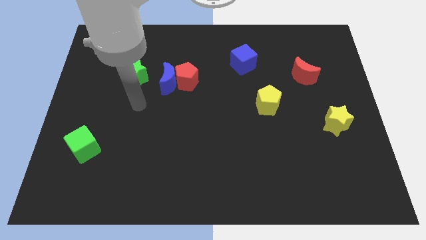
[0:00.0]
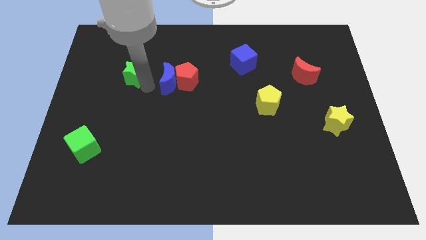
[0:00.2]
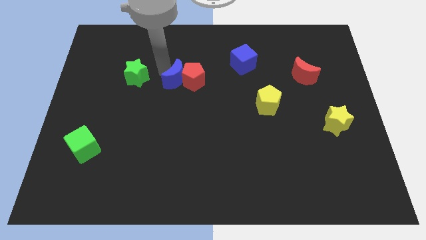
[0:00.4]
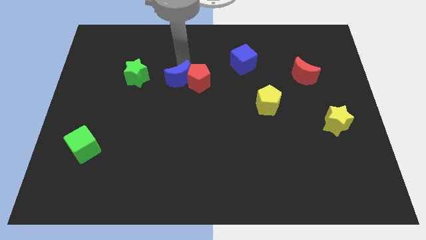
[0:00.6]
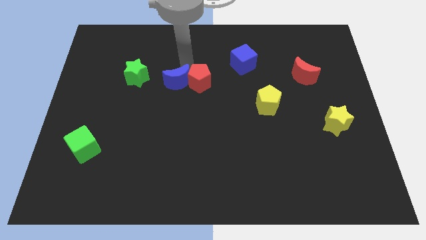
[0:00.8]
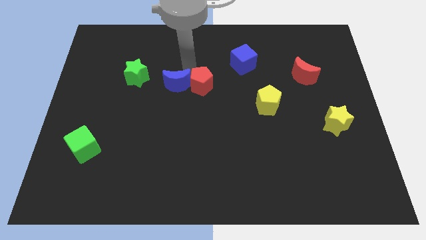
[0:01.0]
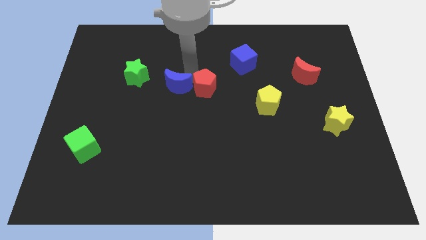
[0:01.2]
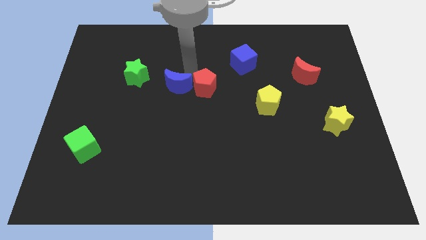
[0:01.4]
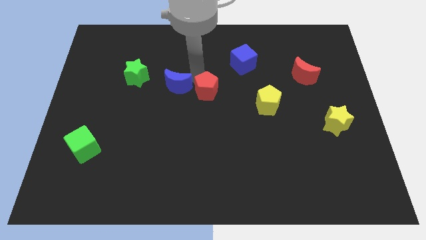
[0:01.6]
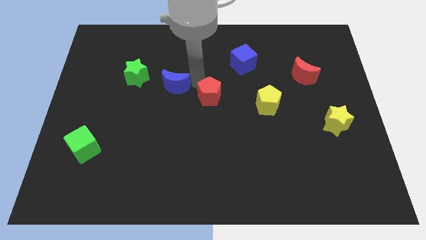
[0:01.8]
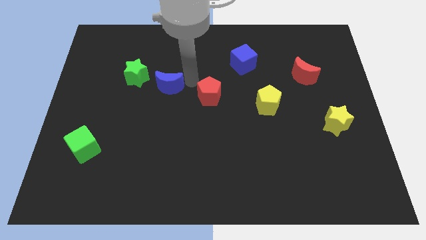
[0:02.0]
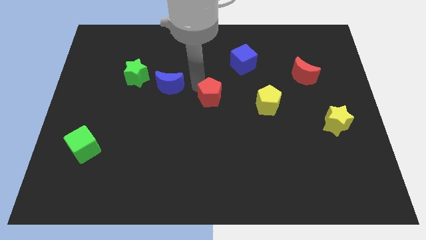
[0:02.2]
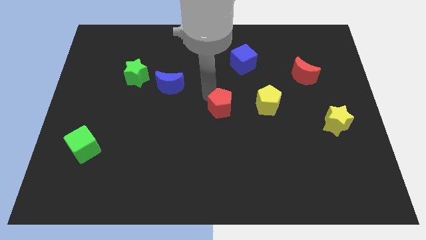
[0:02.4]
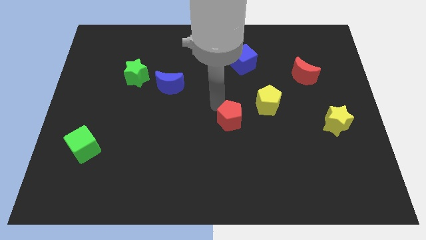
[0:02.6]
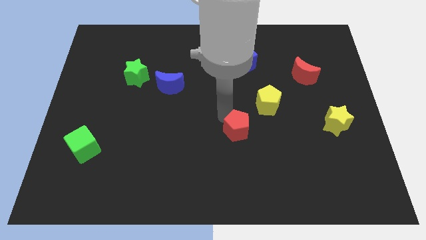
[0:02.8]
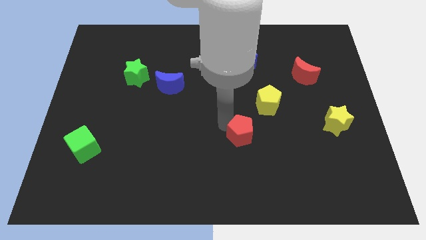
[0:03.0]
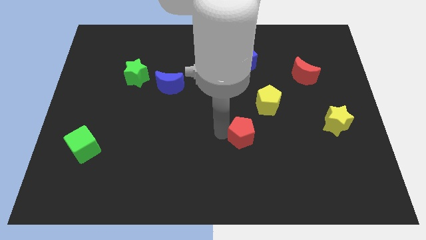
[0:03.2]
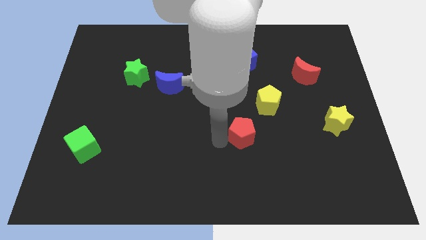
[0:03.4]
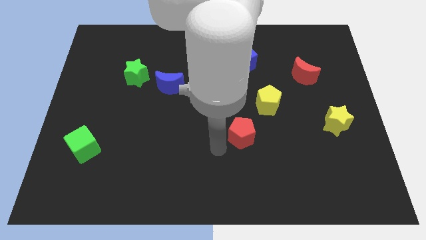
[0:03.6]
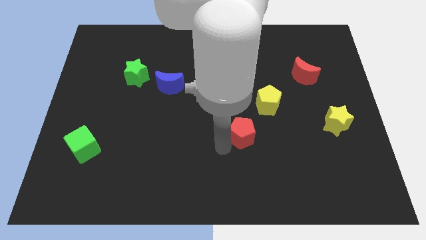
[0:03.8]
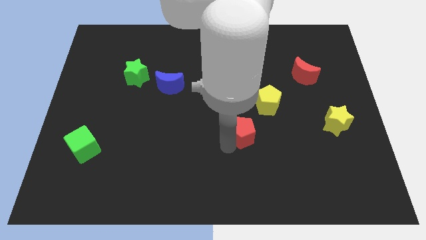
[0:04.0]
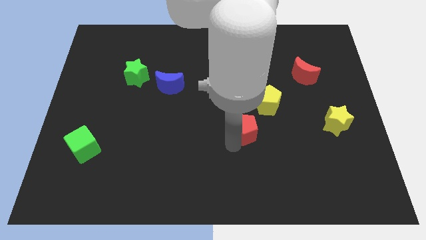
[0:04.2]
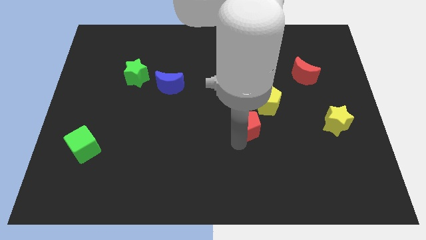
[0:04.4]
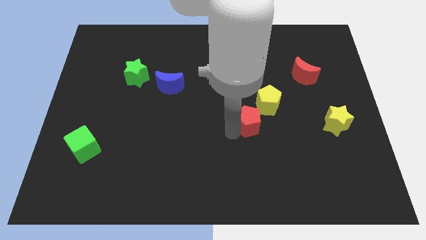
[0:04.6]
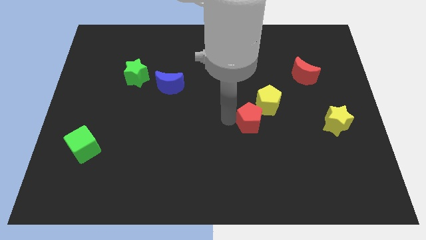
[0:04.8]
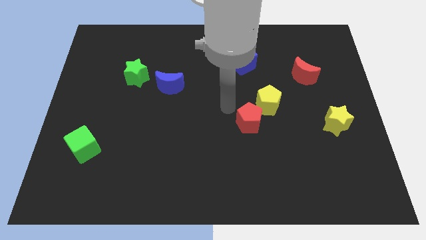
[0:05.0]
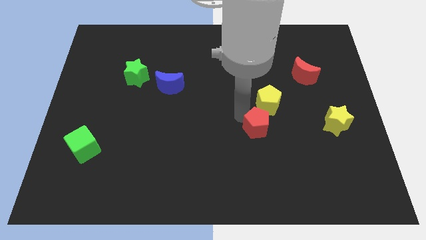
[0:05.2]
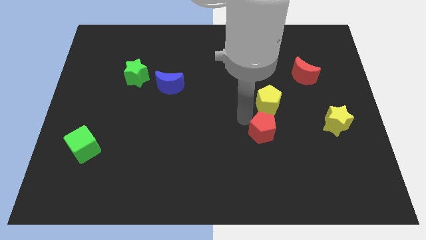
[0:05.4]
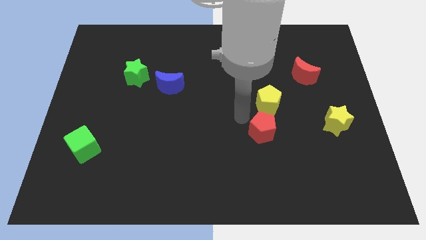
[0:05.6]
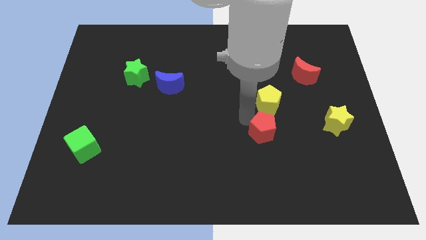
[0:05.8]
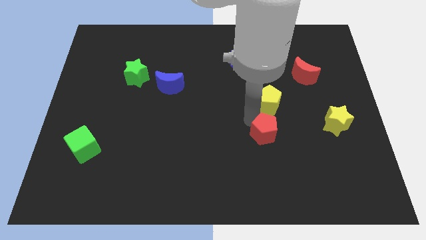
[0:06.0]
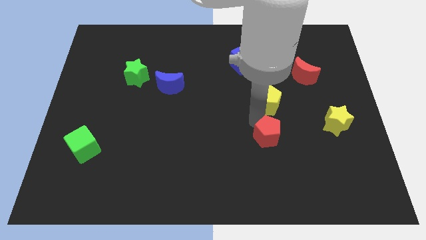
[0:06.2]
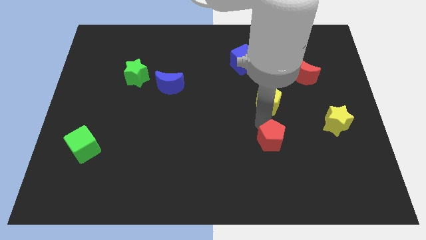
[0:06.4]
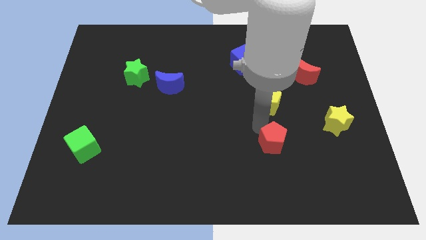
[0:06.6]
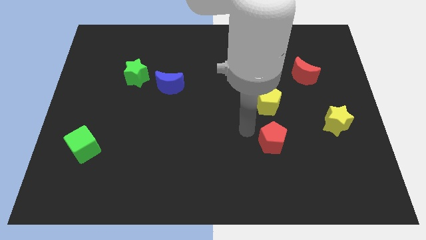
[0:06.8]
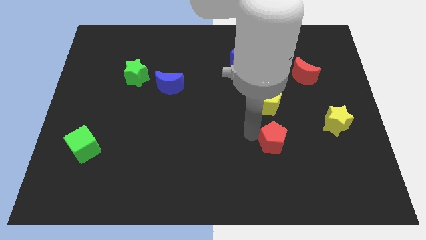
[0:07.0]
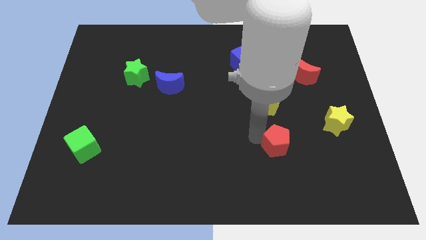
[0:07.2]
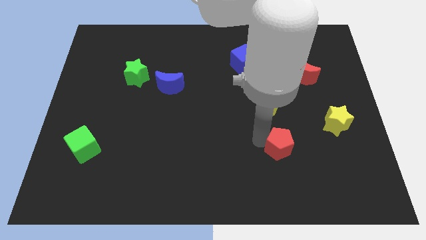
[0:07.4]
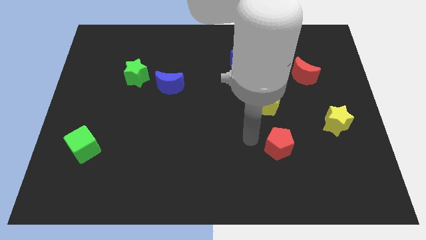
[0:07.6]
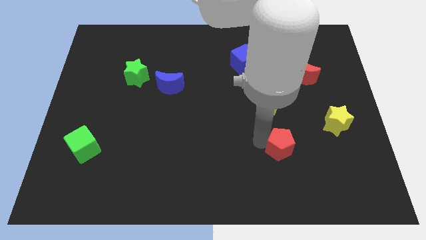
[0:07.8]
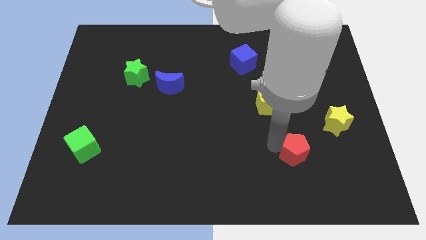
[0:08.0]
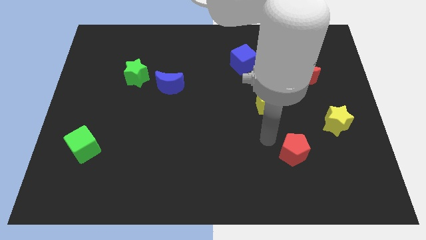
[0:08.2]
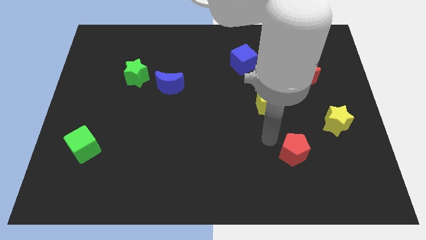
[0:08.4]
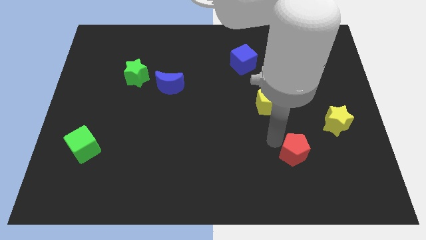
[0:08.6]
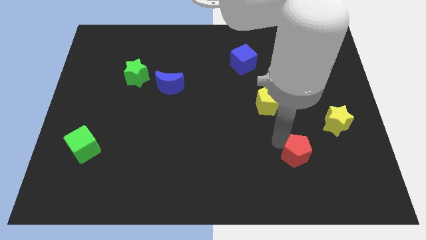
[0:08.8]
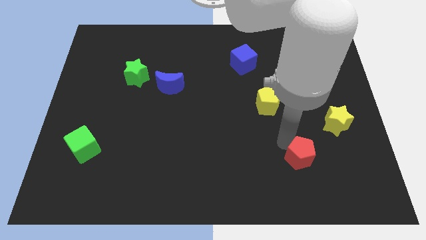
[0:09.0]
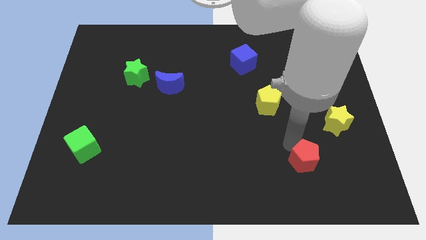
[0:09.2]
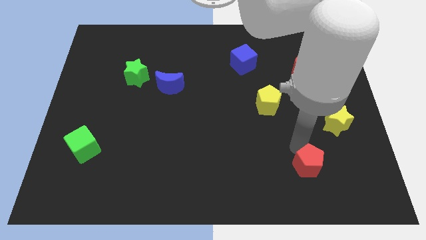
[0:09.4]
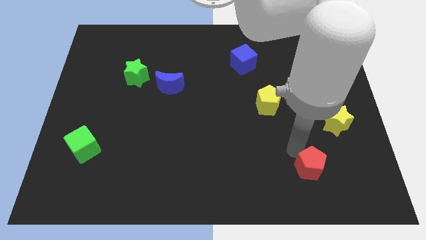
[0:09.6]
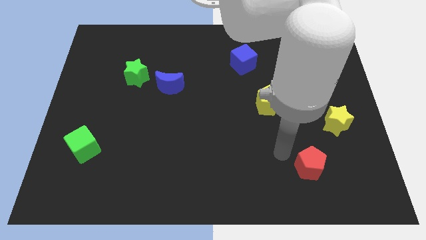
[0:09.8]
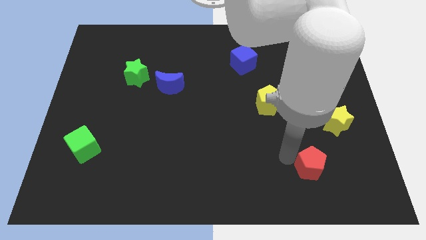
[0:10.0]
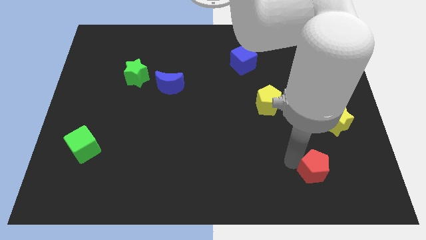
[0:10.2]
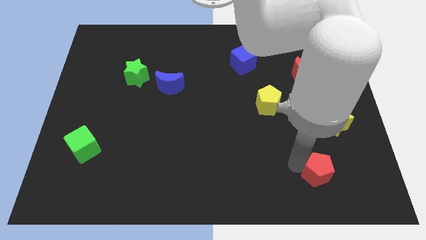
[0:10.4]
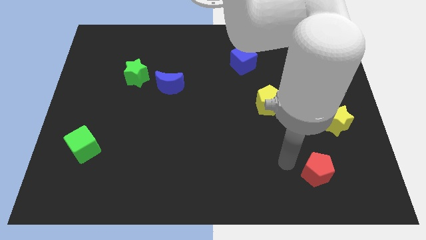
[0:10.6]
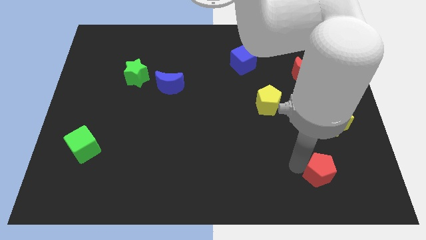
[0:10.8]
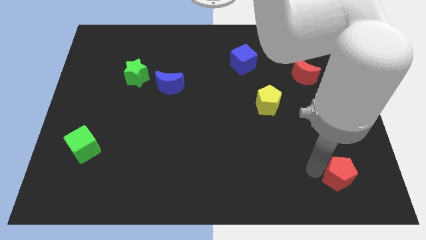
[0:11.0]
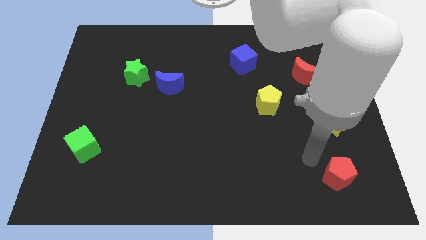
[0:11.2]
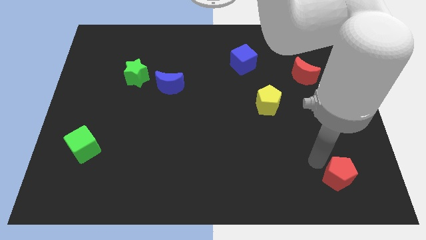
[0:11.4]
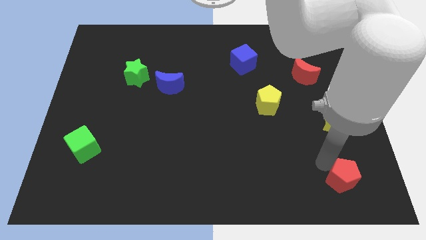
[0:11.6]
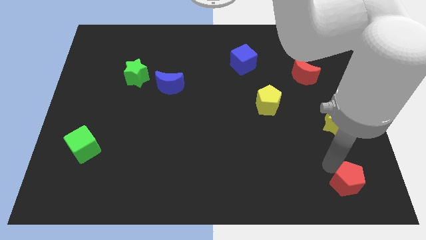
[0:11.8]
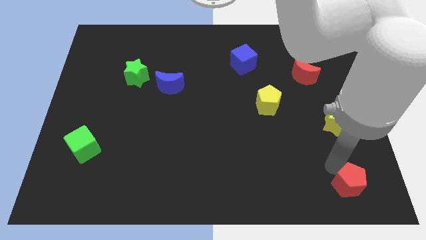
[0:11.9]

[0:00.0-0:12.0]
put the red pentagon to the bottom right corner
